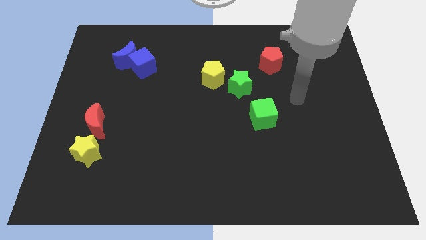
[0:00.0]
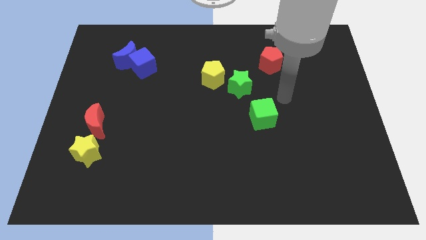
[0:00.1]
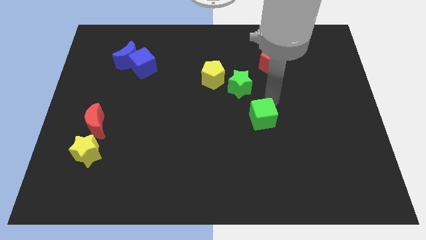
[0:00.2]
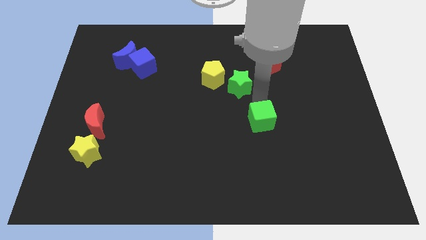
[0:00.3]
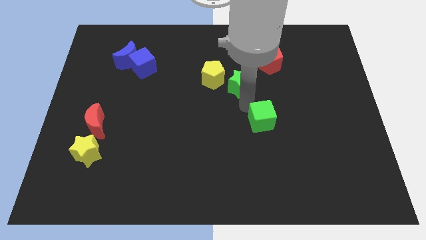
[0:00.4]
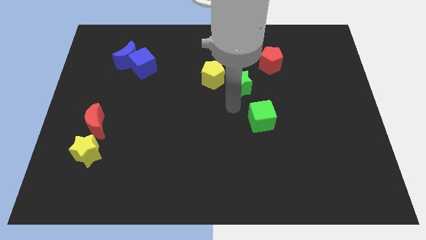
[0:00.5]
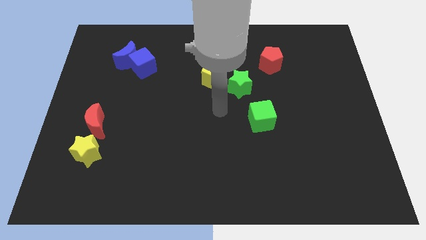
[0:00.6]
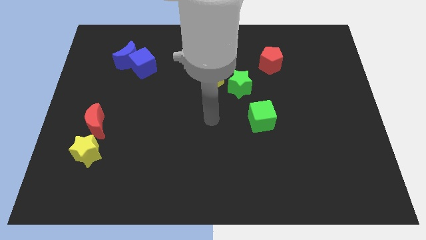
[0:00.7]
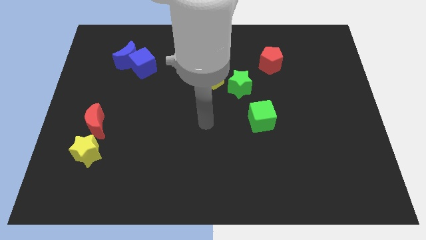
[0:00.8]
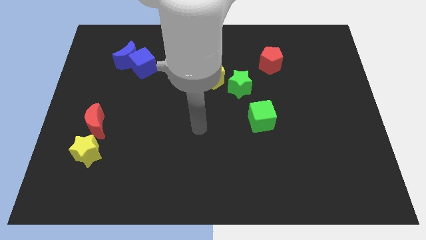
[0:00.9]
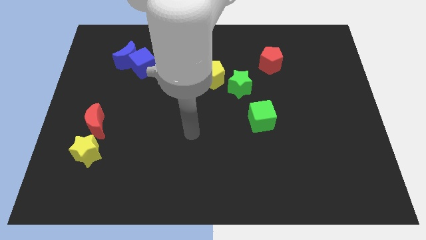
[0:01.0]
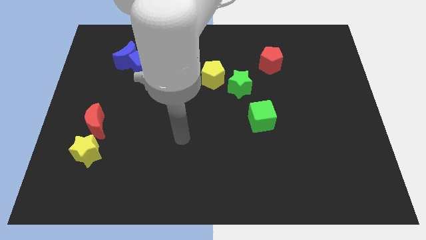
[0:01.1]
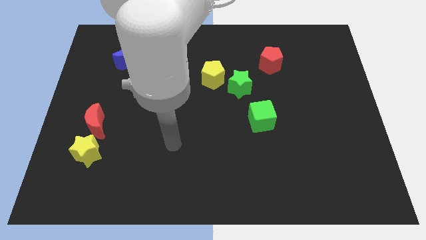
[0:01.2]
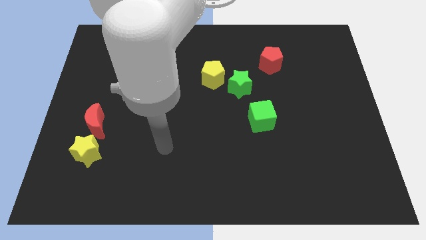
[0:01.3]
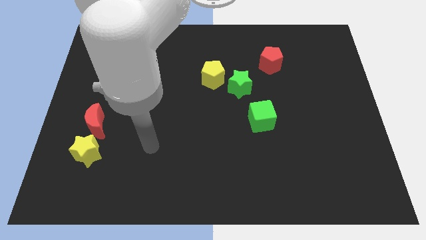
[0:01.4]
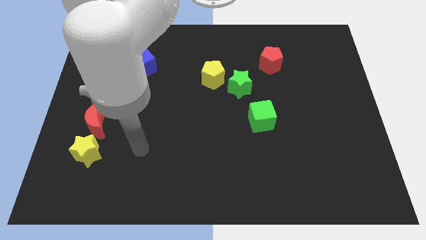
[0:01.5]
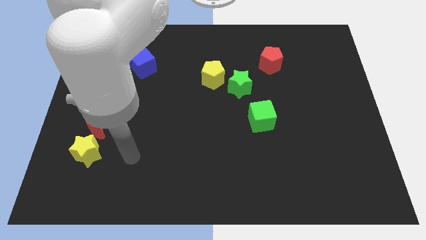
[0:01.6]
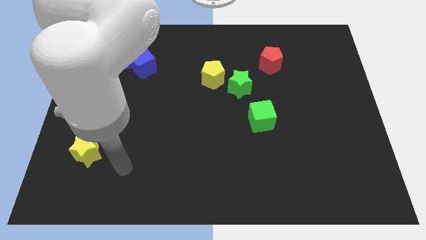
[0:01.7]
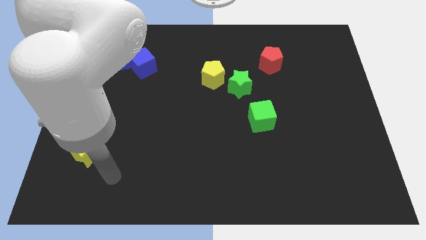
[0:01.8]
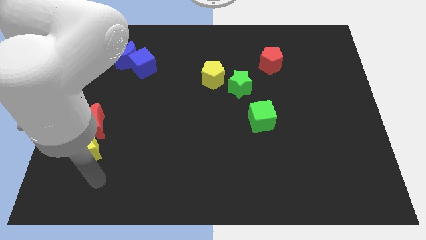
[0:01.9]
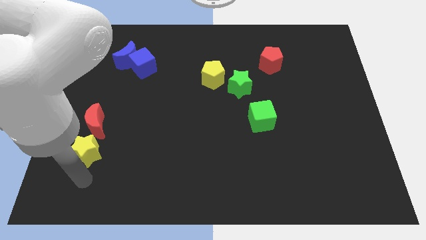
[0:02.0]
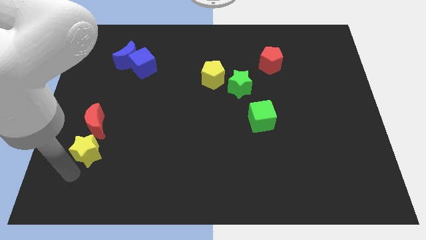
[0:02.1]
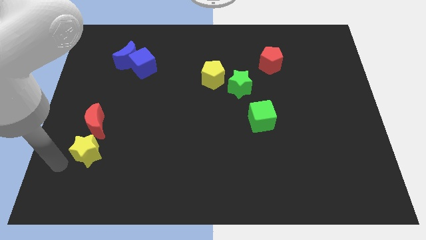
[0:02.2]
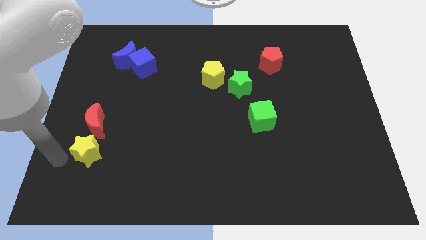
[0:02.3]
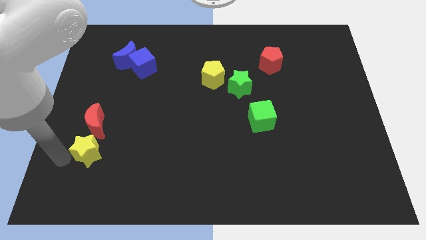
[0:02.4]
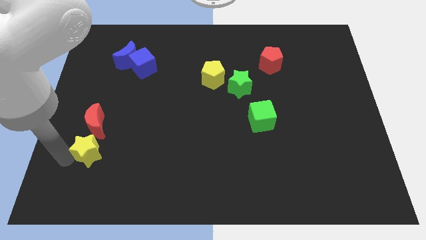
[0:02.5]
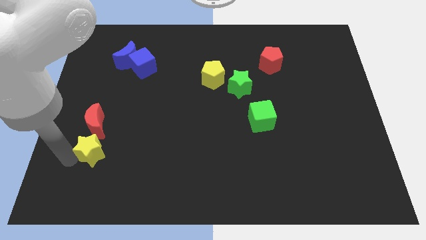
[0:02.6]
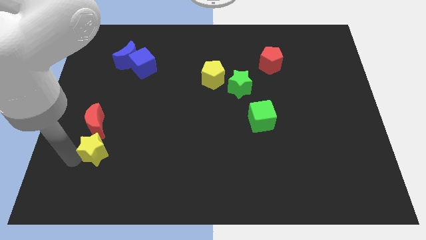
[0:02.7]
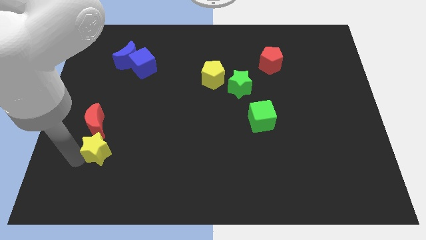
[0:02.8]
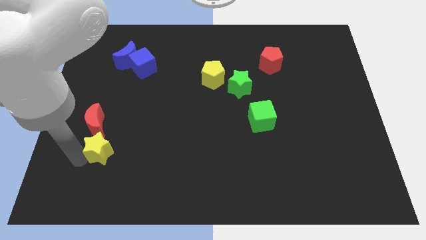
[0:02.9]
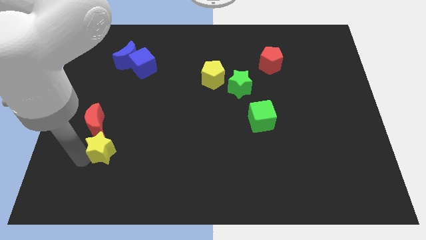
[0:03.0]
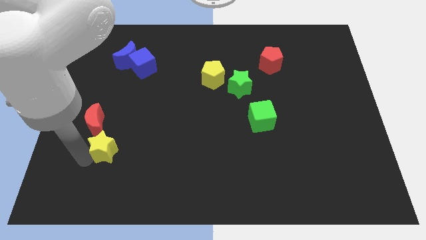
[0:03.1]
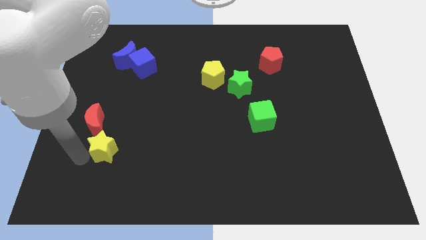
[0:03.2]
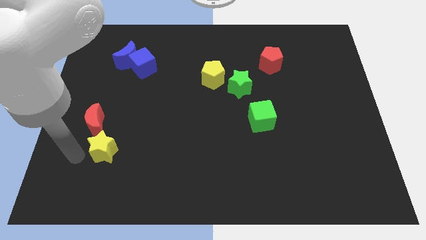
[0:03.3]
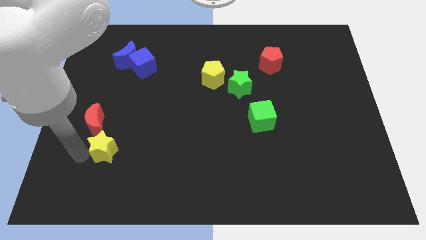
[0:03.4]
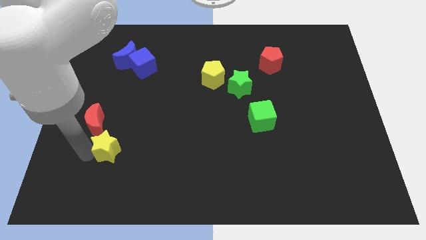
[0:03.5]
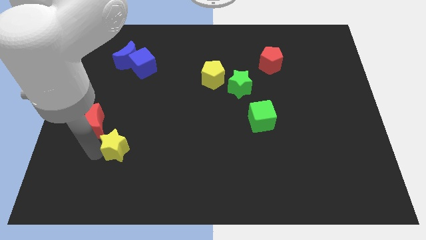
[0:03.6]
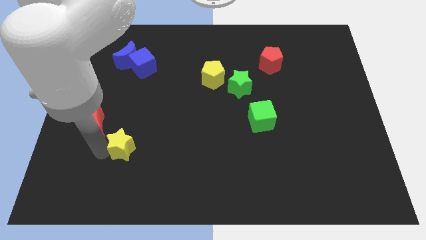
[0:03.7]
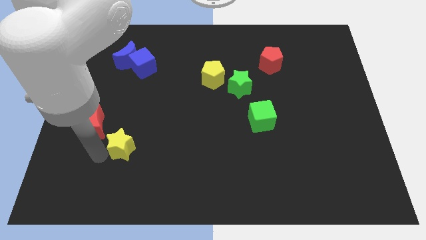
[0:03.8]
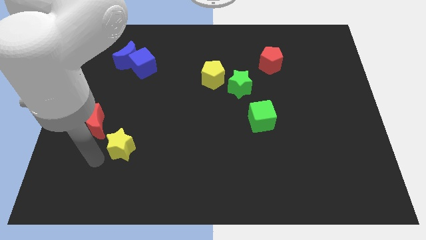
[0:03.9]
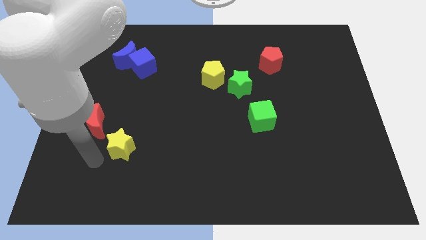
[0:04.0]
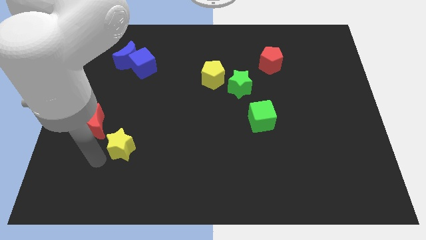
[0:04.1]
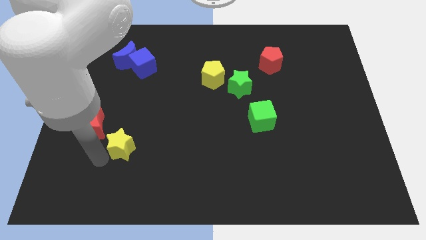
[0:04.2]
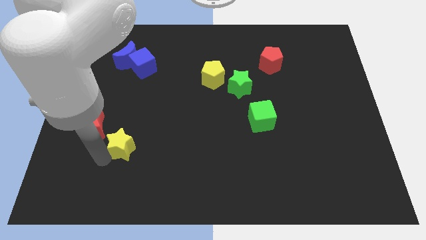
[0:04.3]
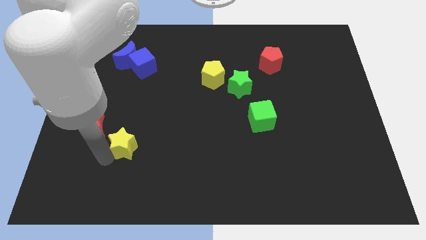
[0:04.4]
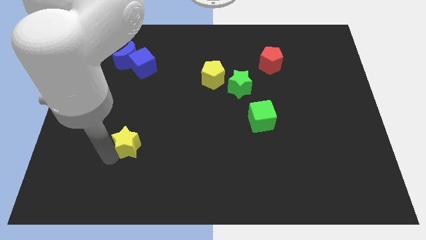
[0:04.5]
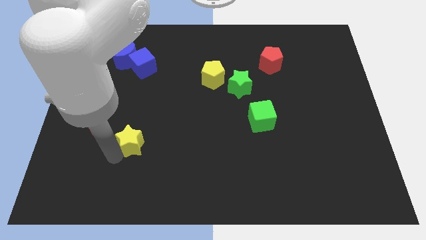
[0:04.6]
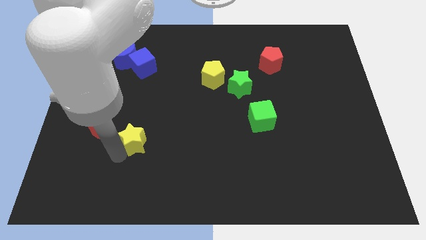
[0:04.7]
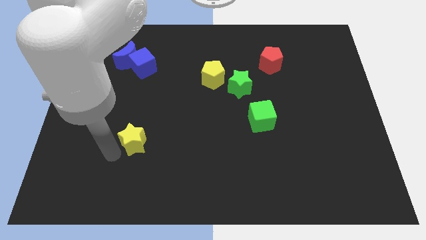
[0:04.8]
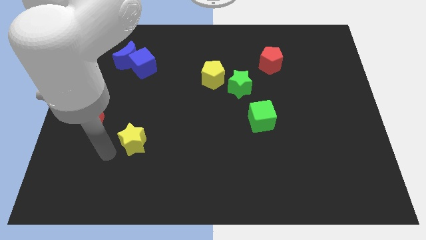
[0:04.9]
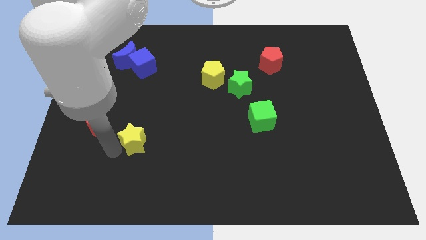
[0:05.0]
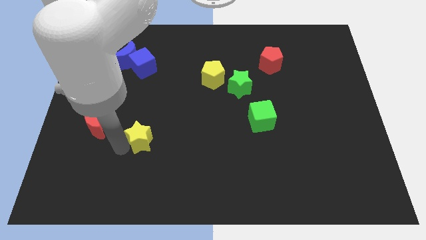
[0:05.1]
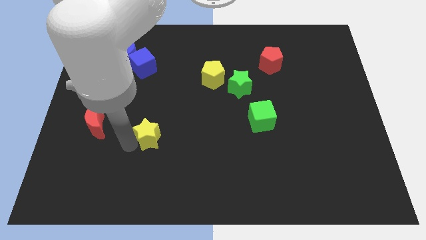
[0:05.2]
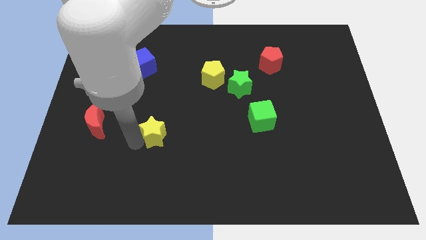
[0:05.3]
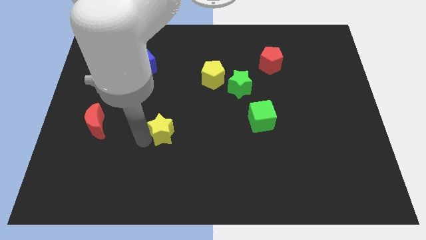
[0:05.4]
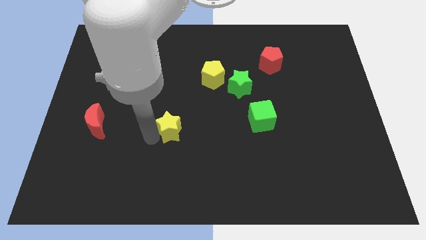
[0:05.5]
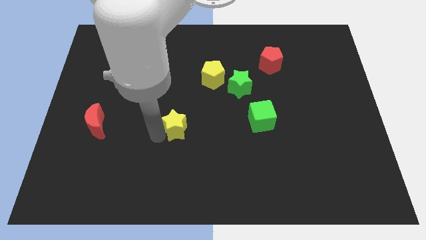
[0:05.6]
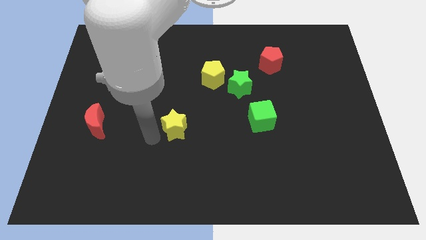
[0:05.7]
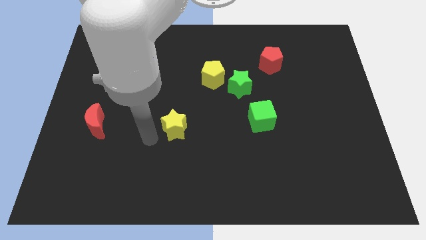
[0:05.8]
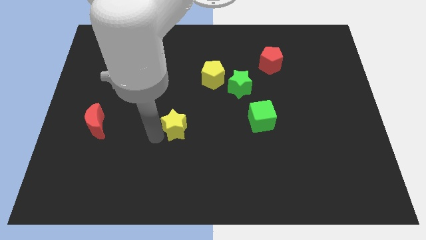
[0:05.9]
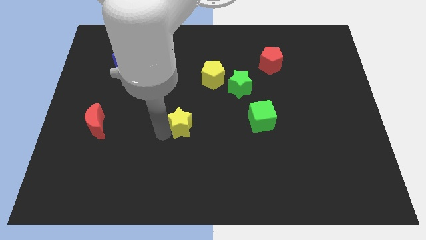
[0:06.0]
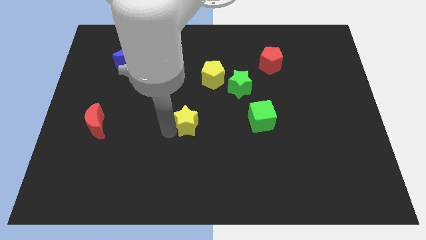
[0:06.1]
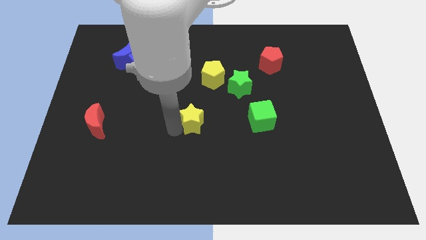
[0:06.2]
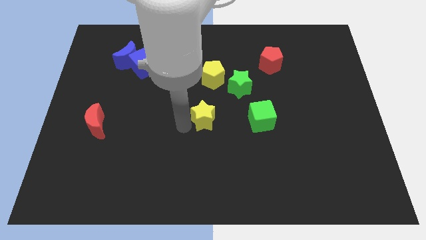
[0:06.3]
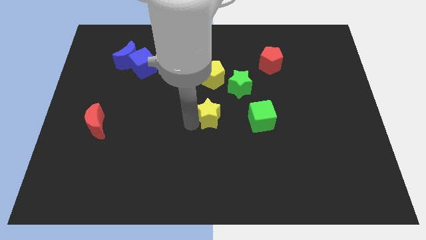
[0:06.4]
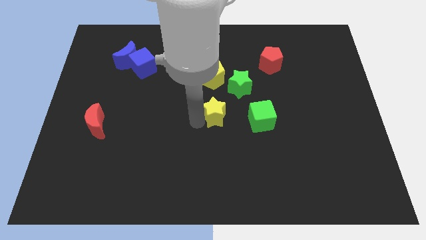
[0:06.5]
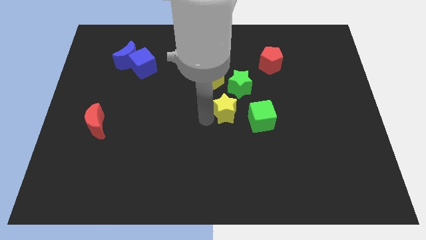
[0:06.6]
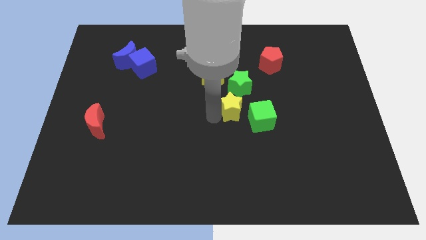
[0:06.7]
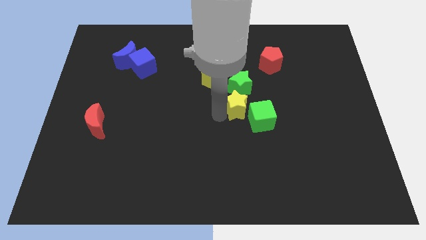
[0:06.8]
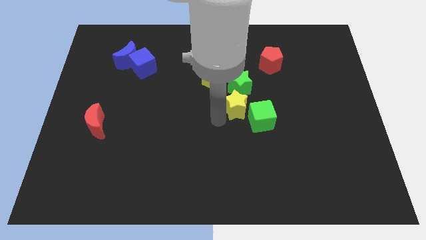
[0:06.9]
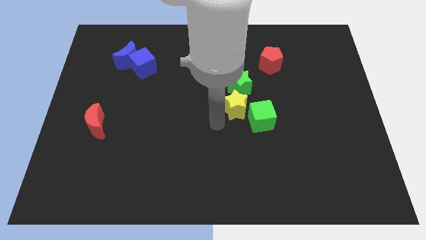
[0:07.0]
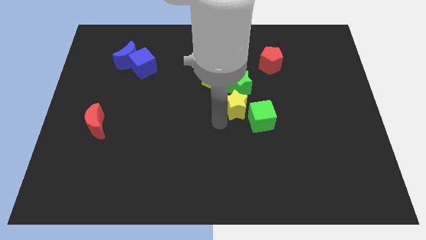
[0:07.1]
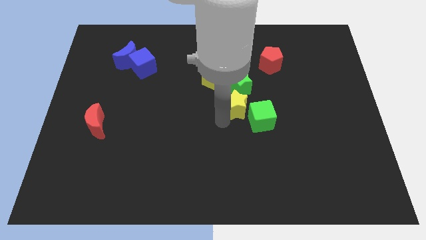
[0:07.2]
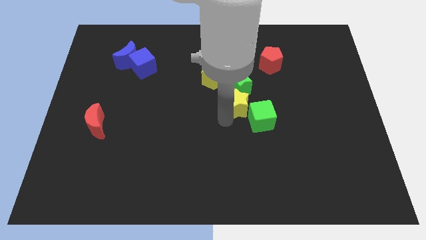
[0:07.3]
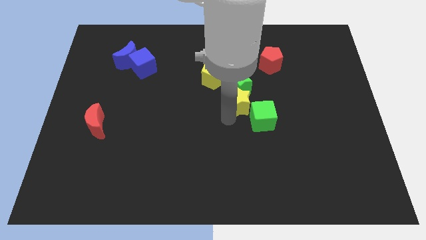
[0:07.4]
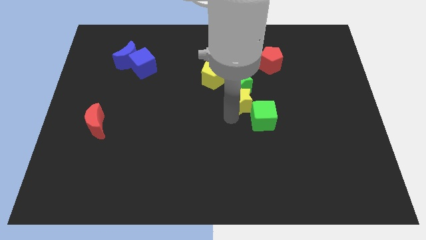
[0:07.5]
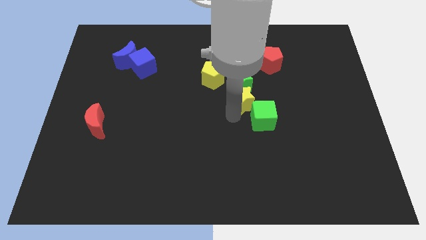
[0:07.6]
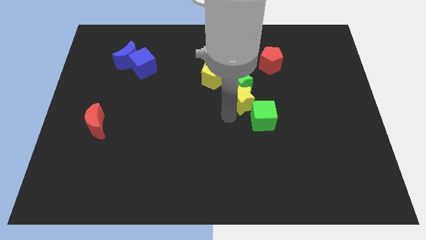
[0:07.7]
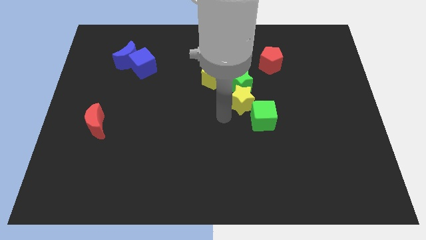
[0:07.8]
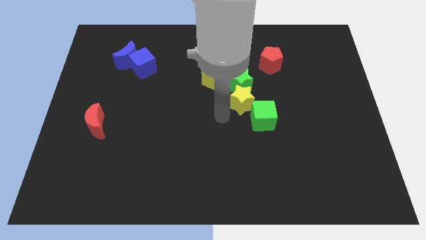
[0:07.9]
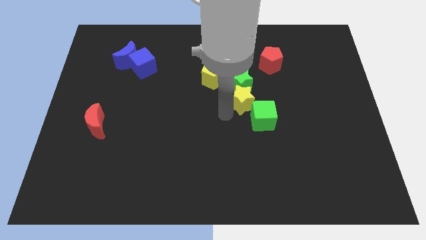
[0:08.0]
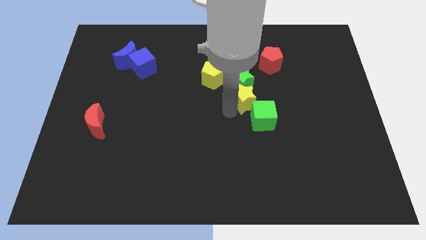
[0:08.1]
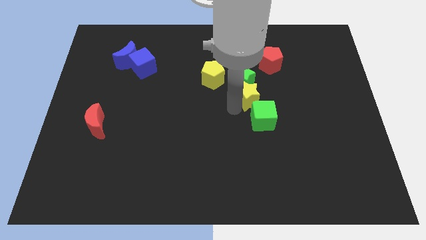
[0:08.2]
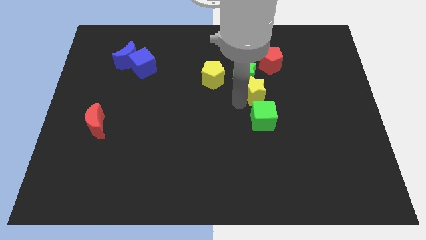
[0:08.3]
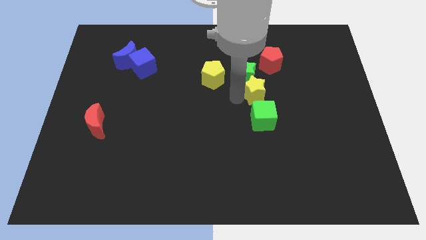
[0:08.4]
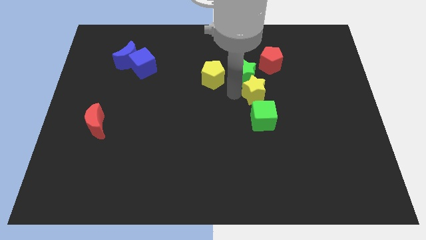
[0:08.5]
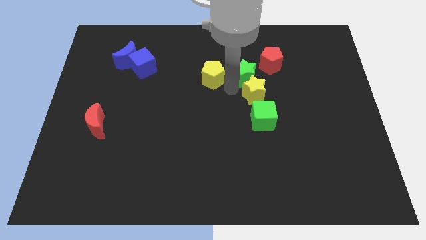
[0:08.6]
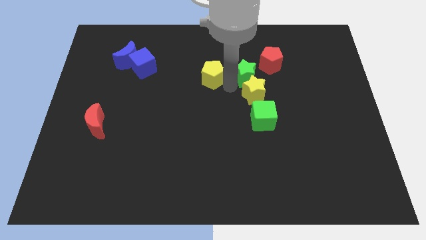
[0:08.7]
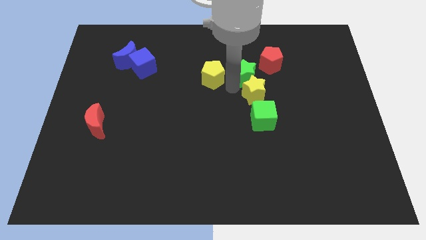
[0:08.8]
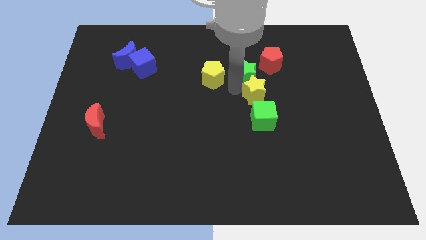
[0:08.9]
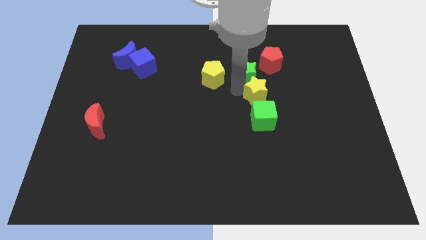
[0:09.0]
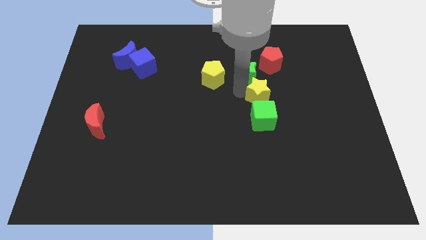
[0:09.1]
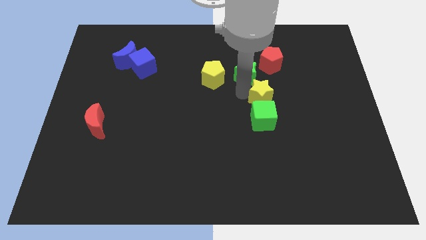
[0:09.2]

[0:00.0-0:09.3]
push the yellow star to the top right of the green cube
